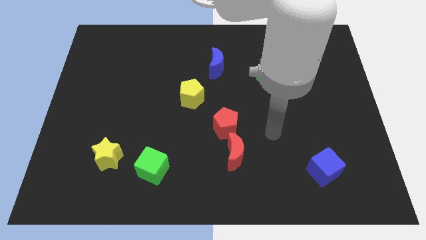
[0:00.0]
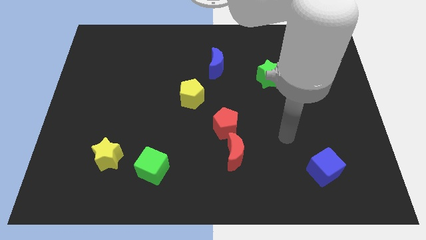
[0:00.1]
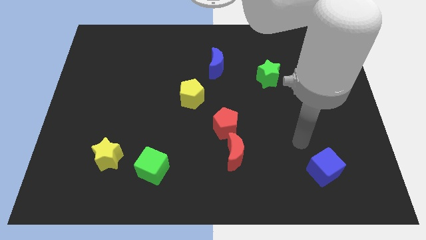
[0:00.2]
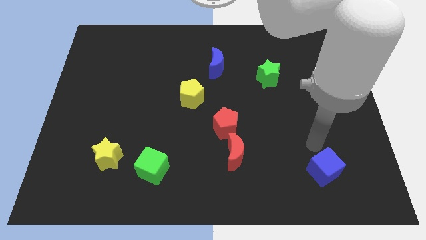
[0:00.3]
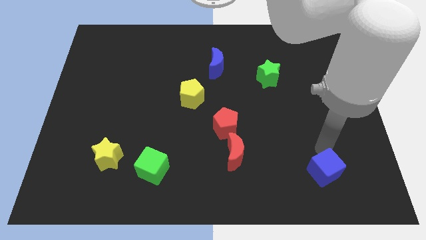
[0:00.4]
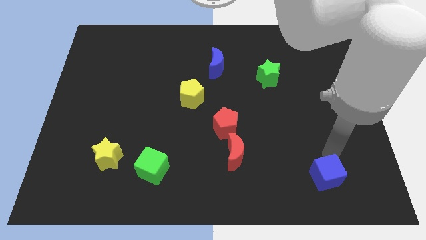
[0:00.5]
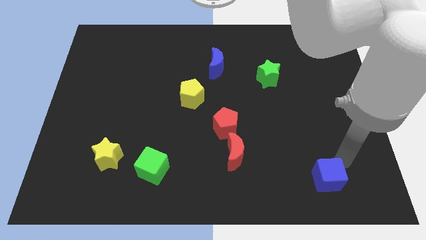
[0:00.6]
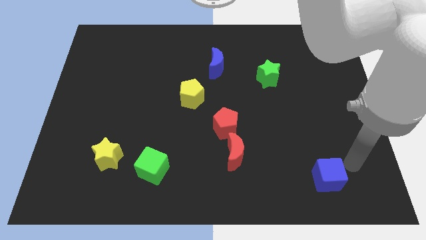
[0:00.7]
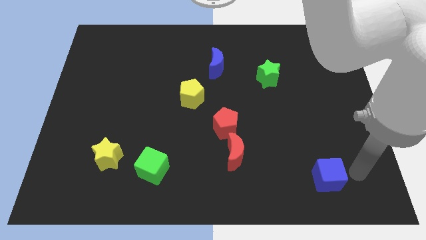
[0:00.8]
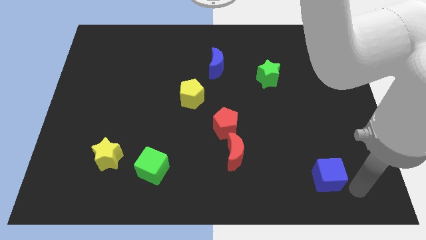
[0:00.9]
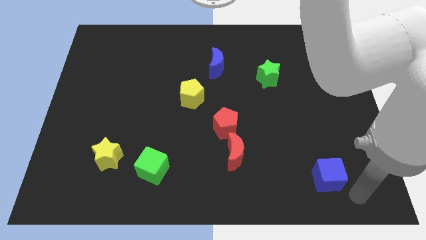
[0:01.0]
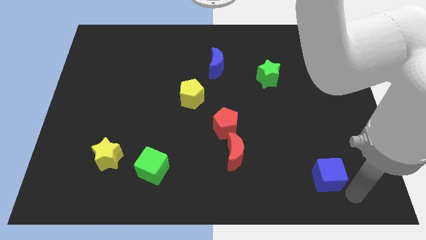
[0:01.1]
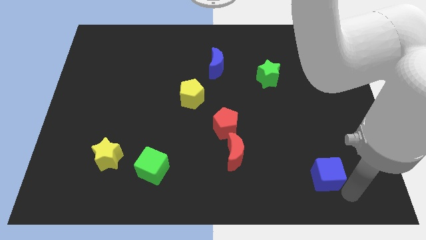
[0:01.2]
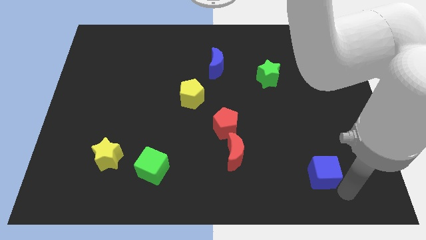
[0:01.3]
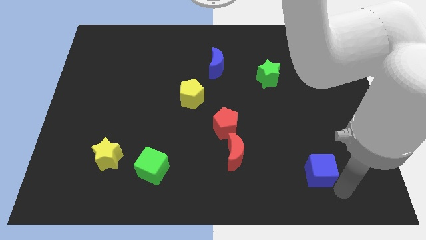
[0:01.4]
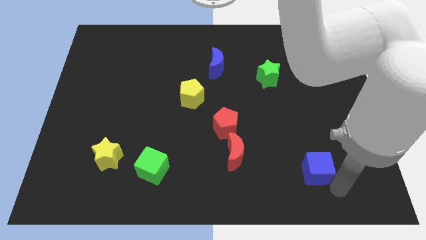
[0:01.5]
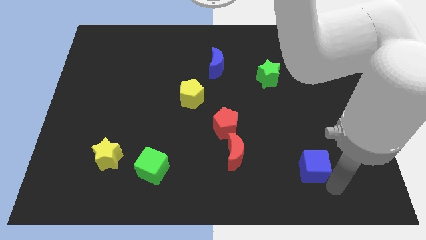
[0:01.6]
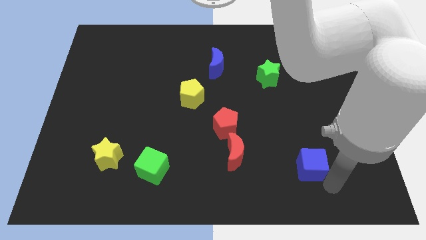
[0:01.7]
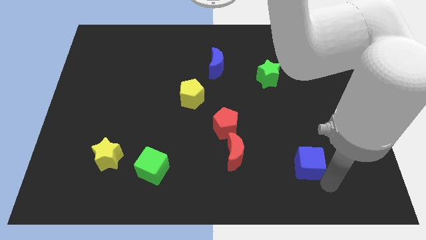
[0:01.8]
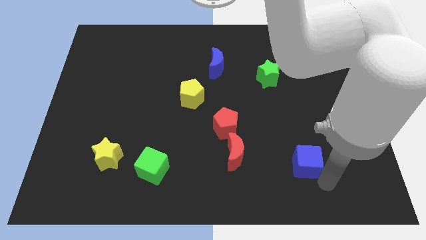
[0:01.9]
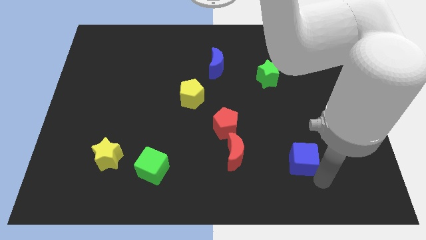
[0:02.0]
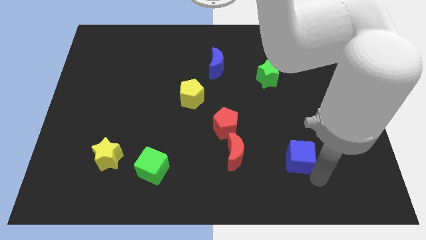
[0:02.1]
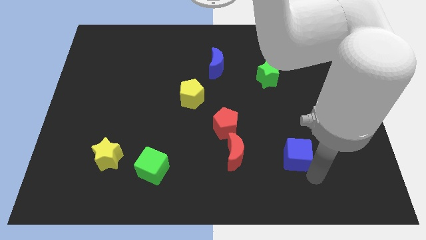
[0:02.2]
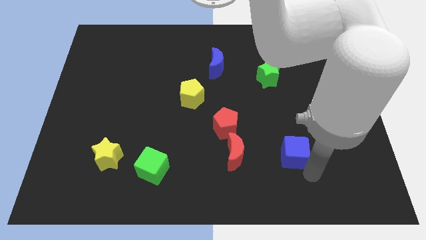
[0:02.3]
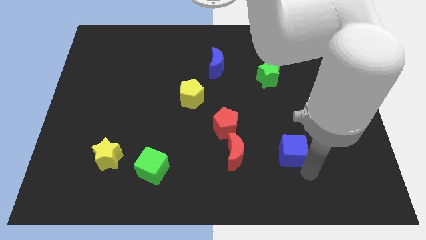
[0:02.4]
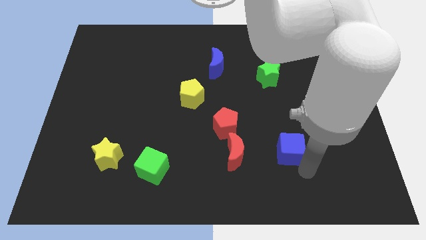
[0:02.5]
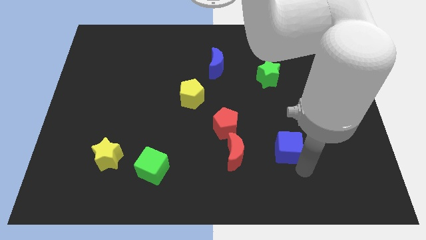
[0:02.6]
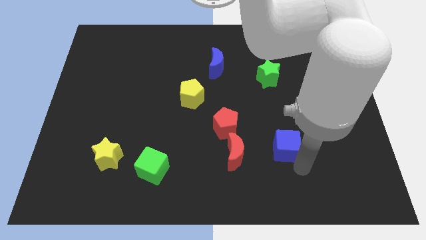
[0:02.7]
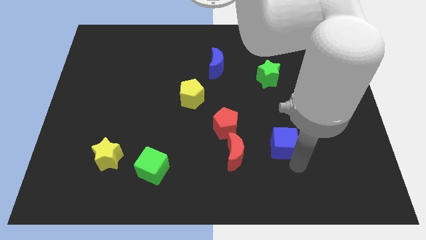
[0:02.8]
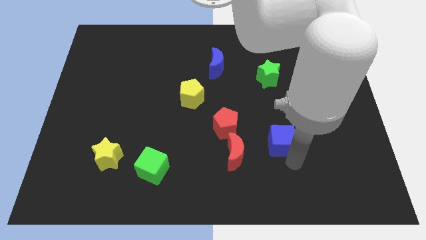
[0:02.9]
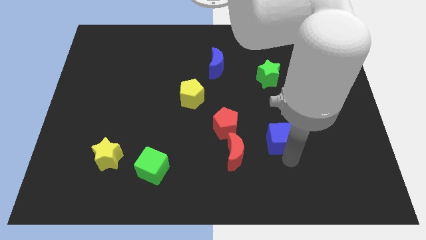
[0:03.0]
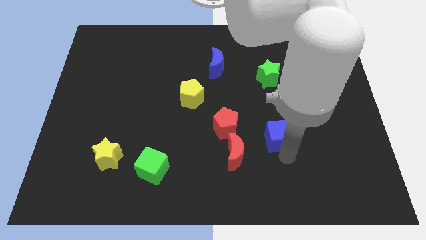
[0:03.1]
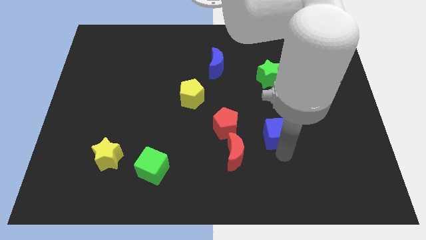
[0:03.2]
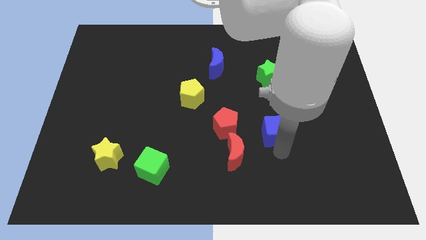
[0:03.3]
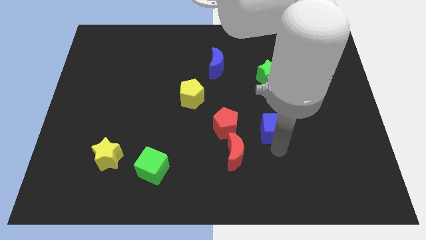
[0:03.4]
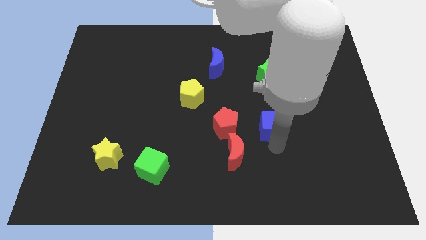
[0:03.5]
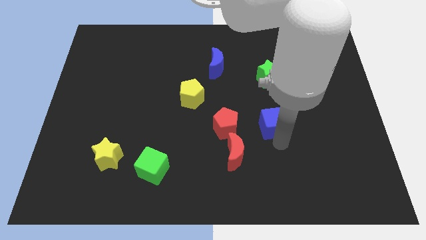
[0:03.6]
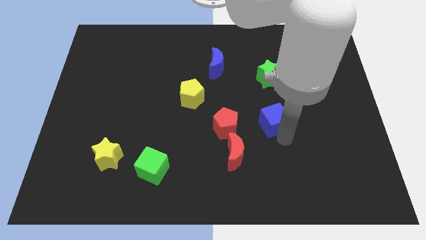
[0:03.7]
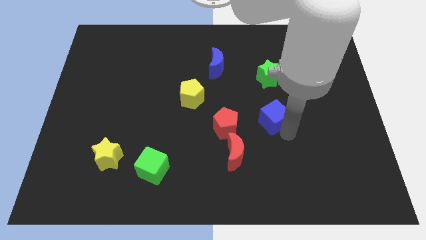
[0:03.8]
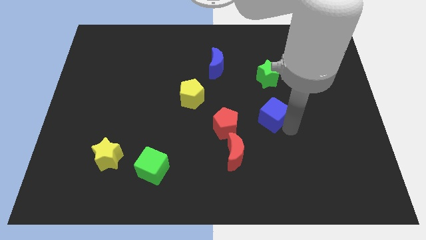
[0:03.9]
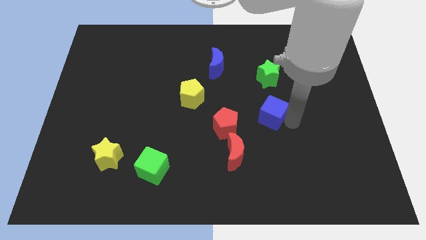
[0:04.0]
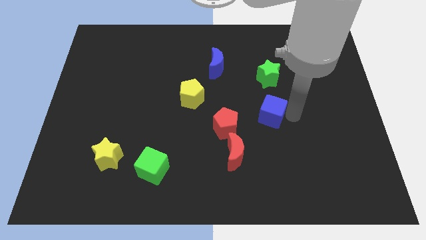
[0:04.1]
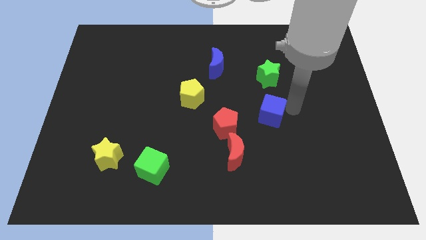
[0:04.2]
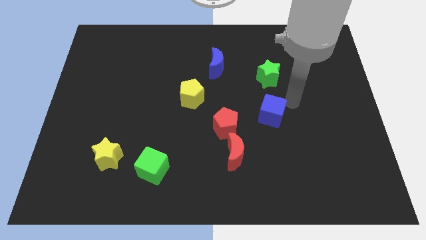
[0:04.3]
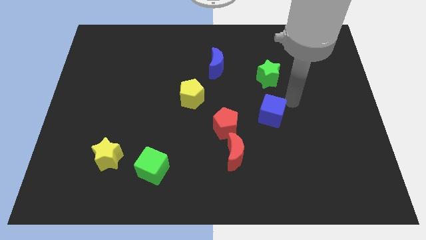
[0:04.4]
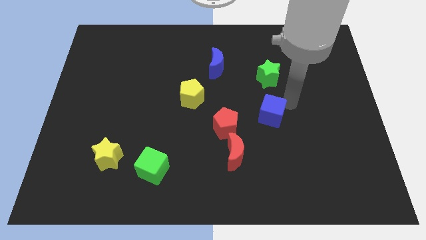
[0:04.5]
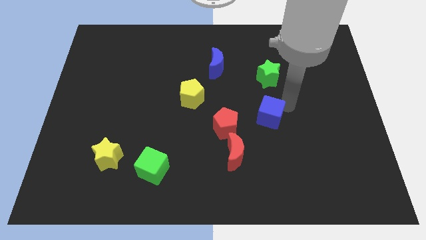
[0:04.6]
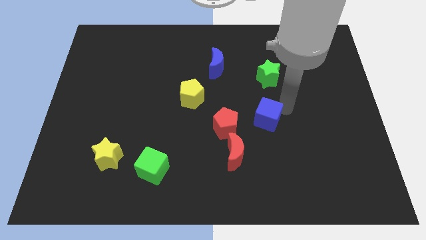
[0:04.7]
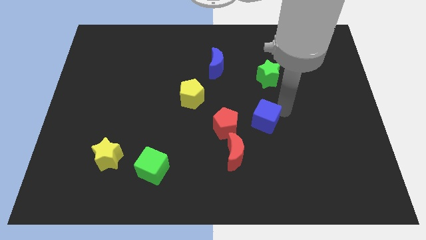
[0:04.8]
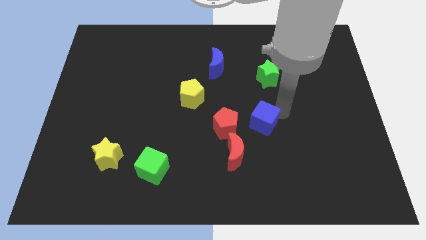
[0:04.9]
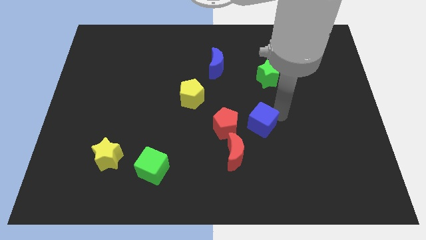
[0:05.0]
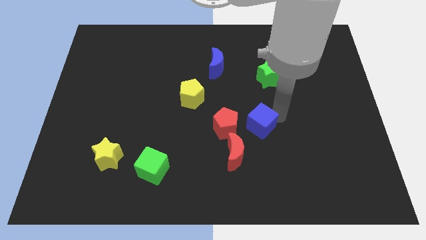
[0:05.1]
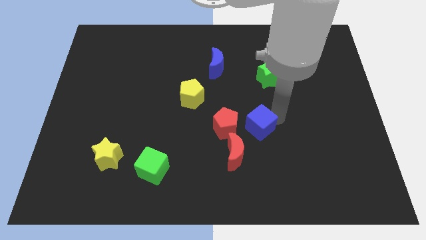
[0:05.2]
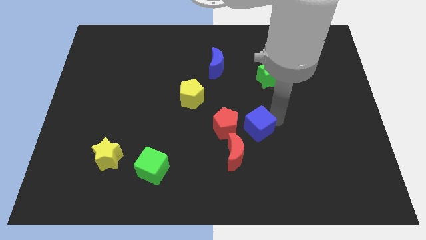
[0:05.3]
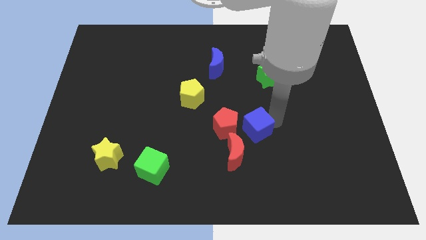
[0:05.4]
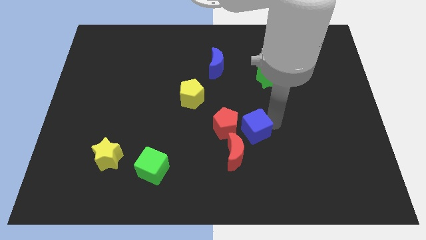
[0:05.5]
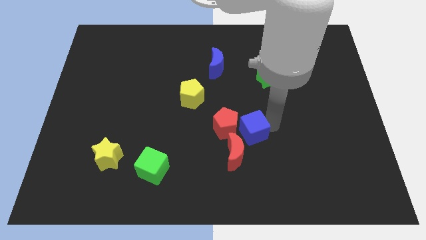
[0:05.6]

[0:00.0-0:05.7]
push the blue cube towards the red pentagon

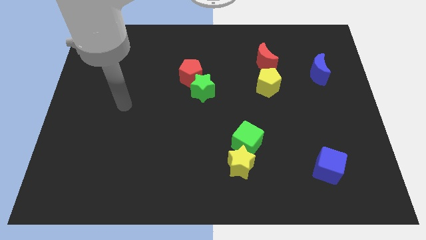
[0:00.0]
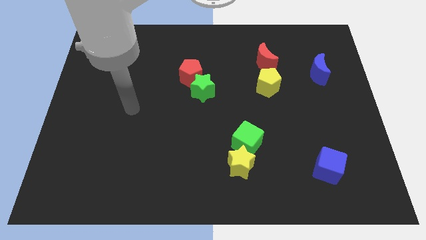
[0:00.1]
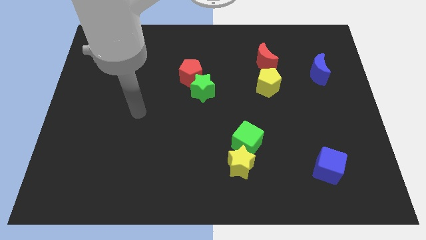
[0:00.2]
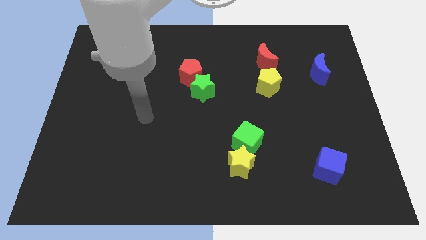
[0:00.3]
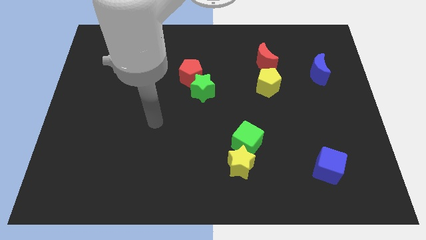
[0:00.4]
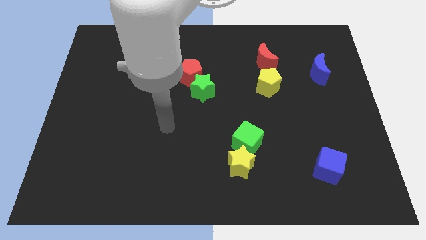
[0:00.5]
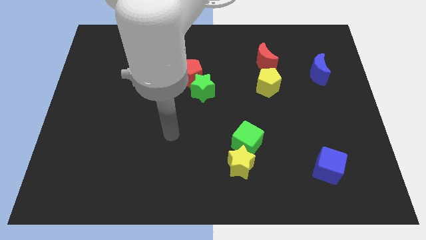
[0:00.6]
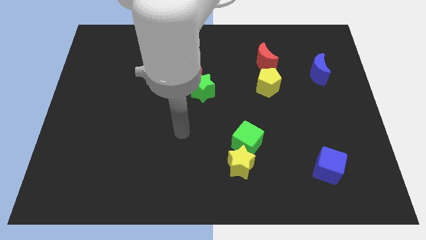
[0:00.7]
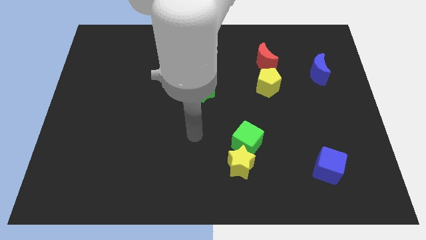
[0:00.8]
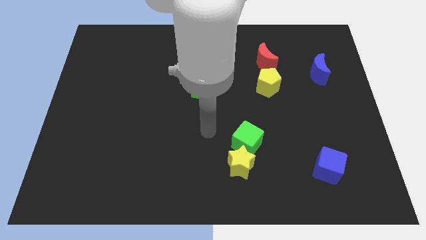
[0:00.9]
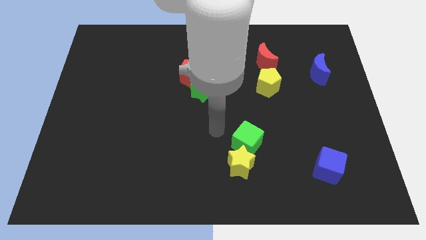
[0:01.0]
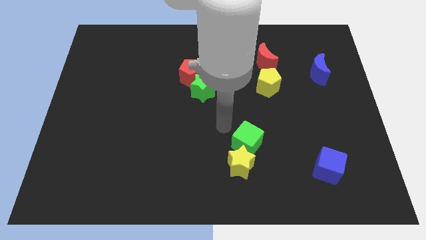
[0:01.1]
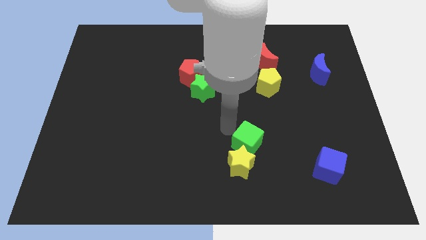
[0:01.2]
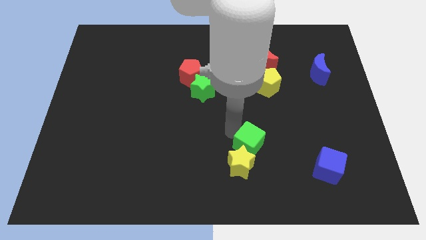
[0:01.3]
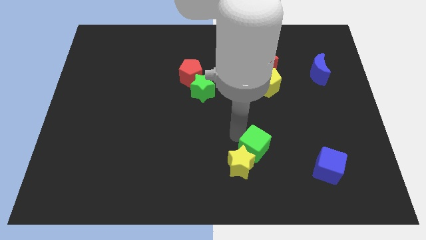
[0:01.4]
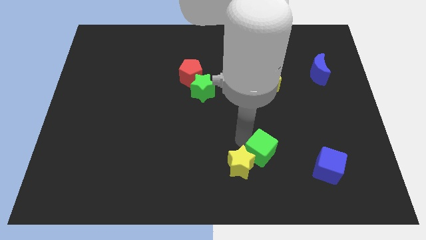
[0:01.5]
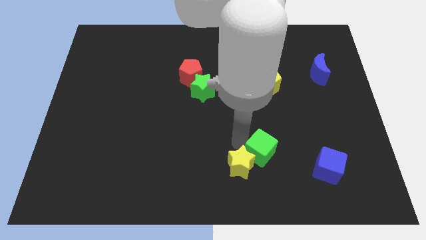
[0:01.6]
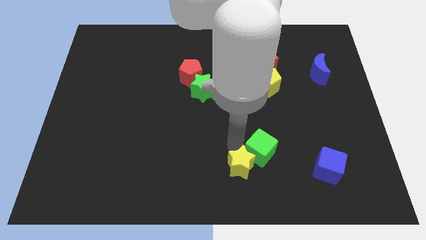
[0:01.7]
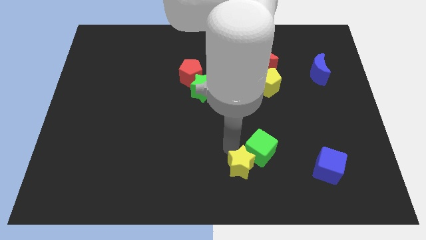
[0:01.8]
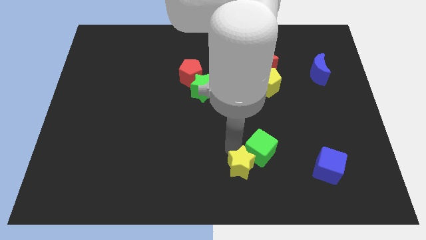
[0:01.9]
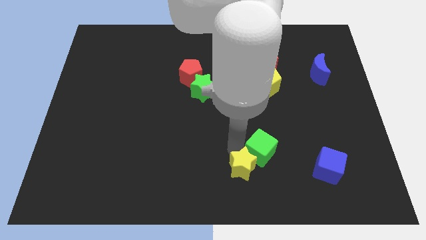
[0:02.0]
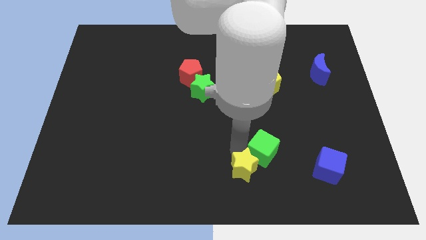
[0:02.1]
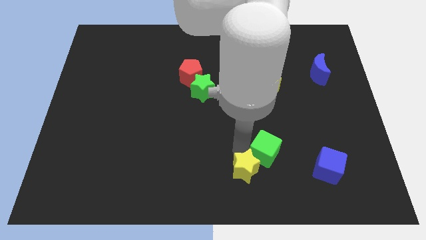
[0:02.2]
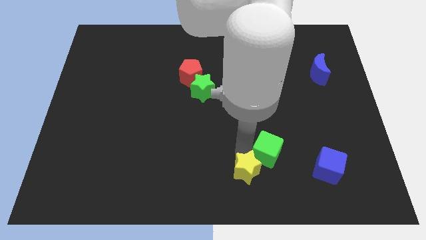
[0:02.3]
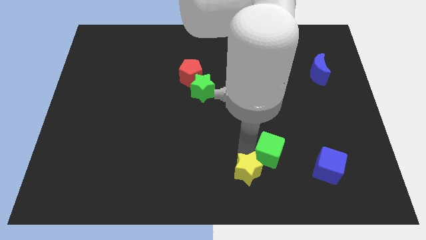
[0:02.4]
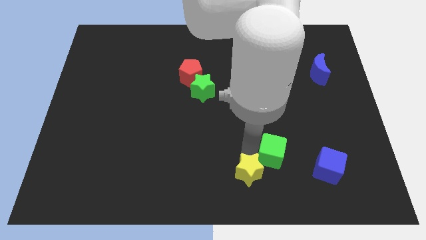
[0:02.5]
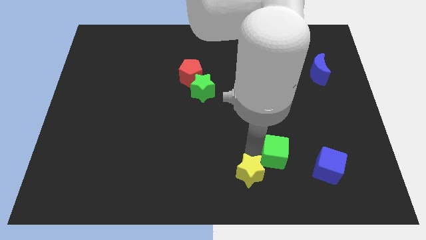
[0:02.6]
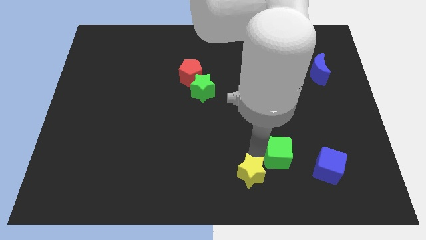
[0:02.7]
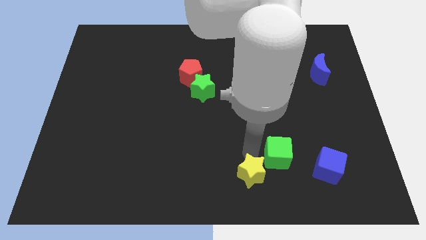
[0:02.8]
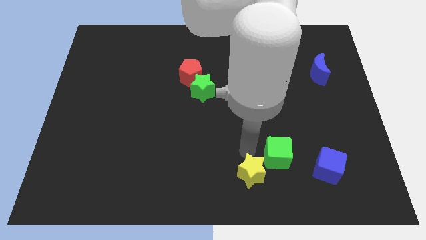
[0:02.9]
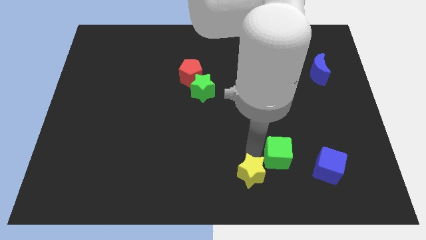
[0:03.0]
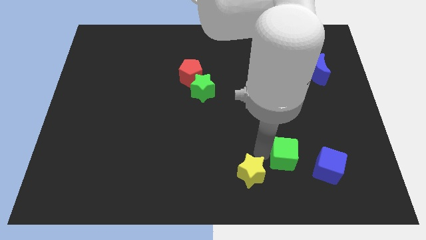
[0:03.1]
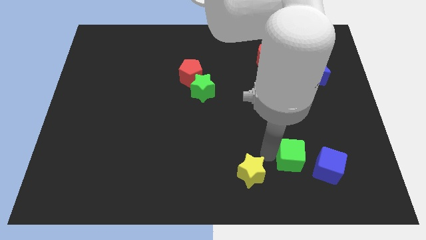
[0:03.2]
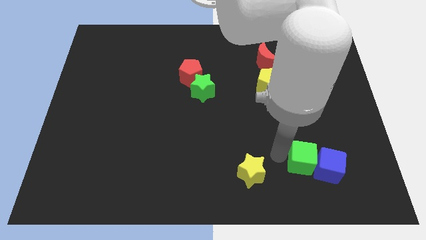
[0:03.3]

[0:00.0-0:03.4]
push the green cube close to the blue cube
